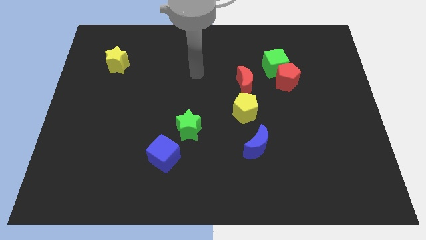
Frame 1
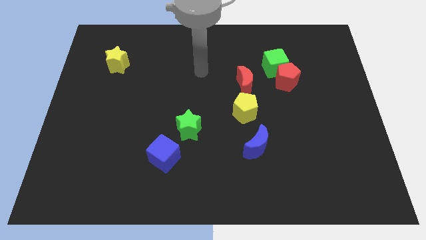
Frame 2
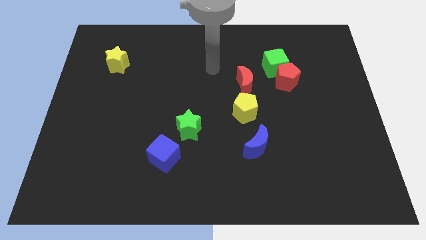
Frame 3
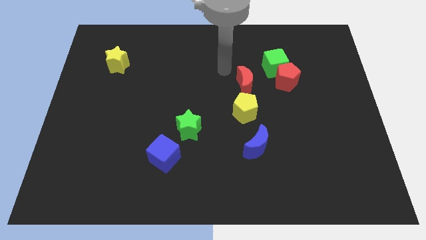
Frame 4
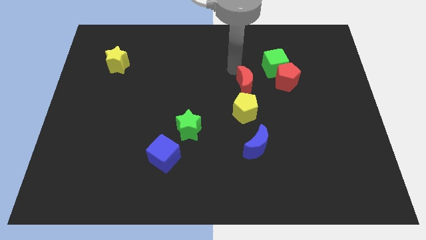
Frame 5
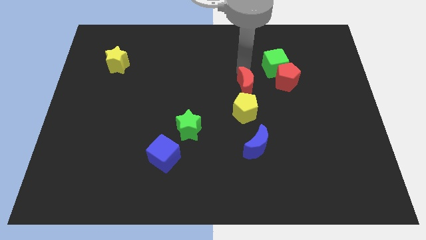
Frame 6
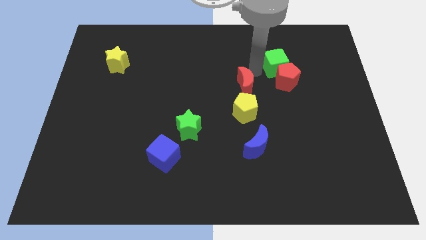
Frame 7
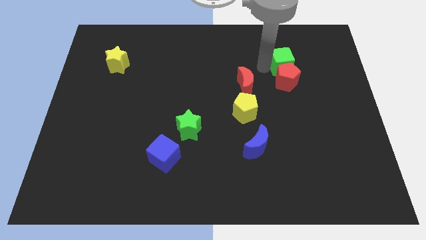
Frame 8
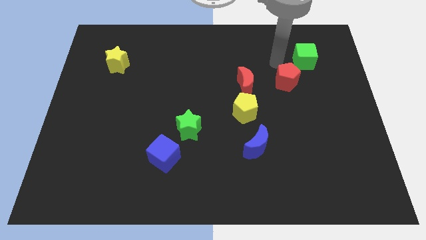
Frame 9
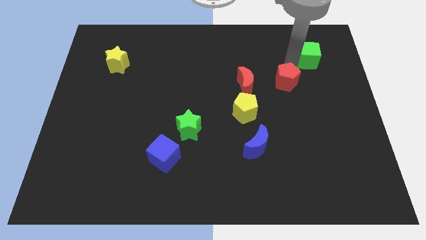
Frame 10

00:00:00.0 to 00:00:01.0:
pull the red pentagon apart from the green cube

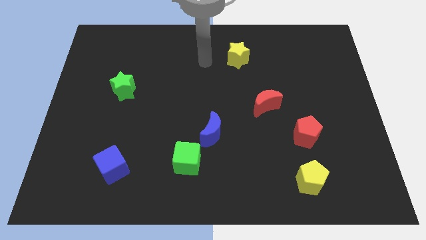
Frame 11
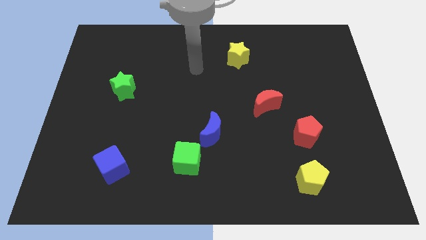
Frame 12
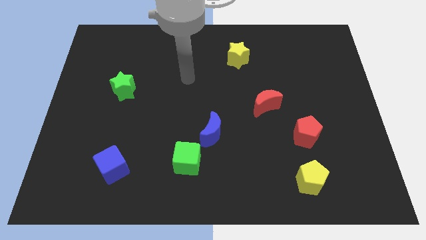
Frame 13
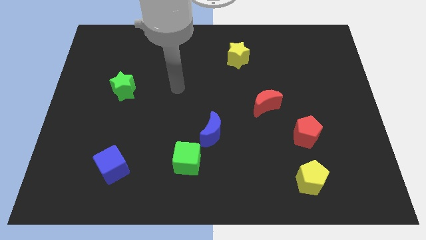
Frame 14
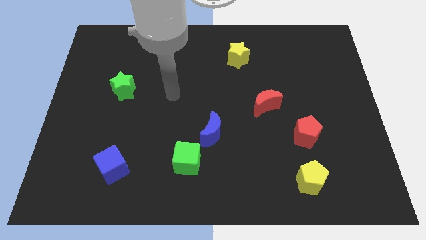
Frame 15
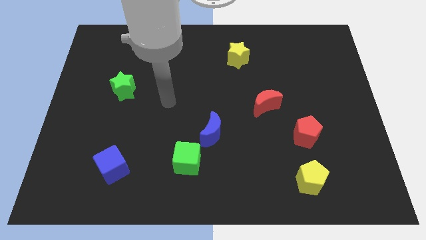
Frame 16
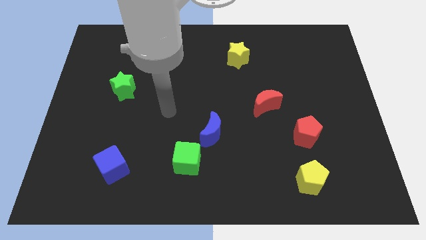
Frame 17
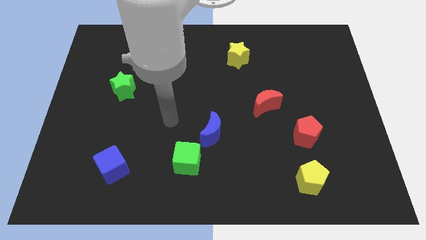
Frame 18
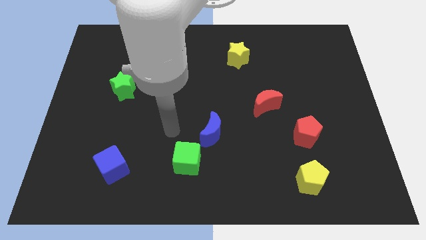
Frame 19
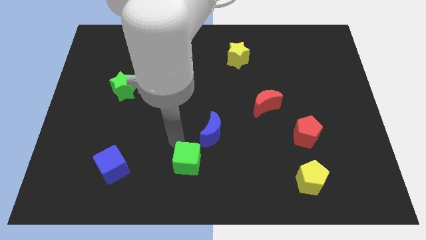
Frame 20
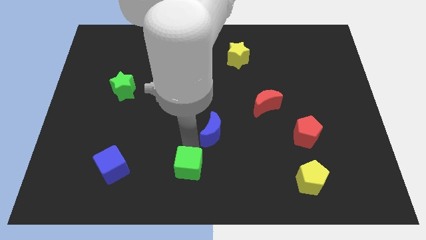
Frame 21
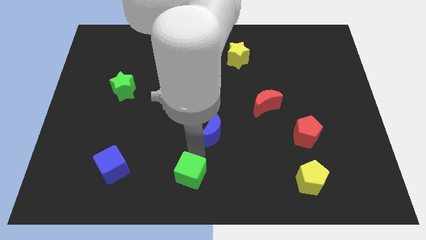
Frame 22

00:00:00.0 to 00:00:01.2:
pull the blue moon apart from the green cube

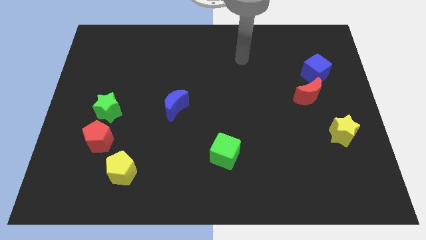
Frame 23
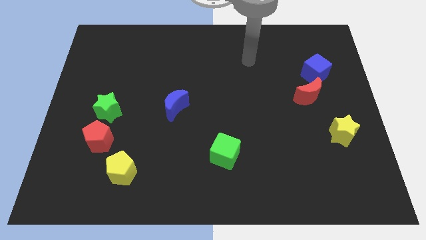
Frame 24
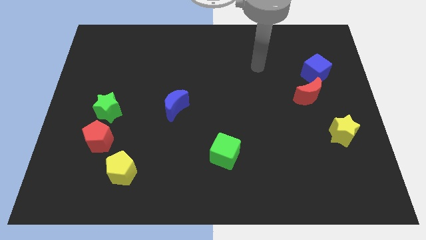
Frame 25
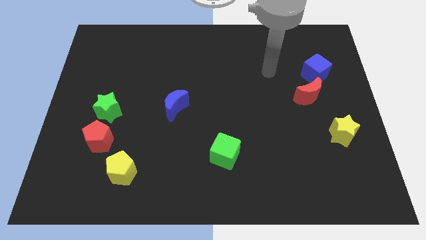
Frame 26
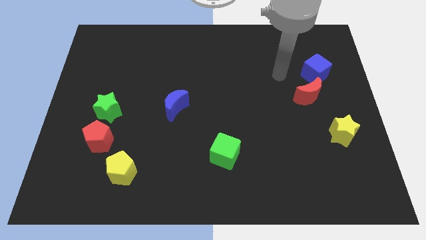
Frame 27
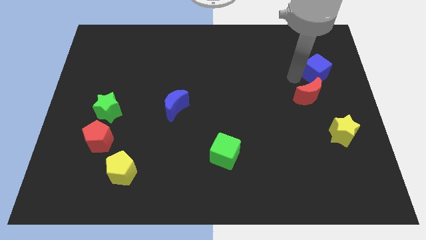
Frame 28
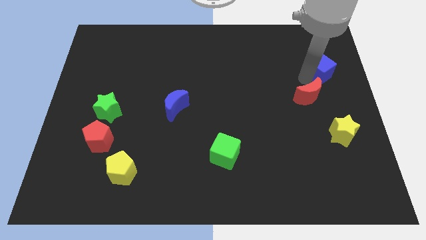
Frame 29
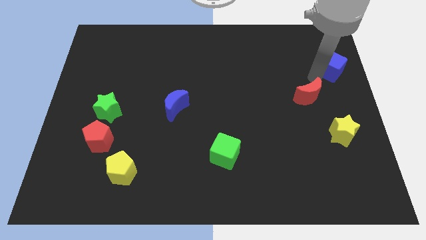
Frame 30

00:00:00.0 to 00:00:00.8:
move the red moon away from the blue cube

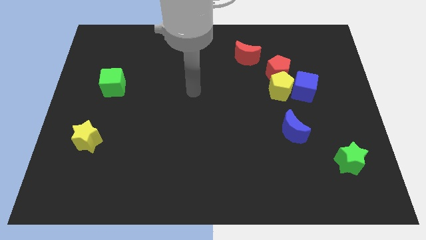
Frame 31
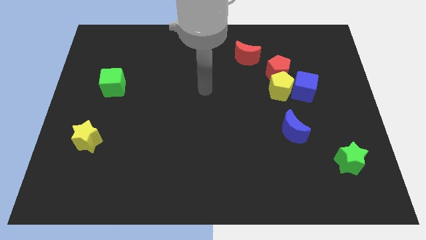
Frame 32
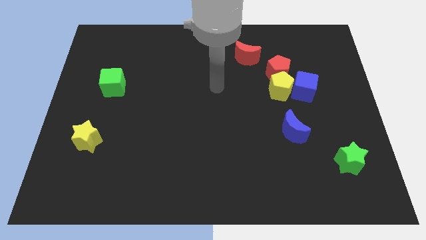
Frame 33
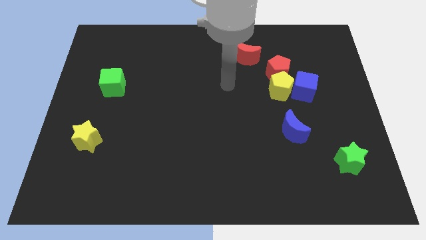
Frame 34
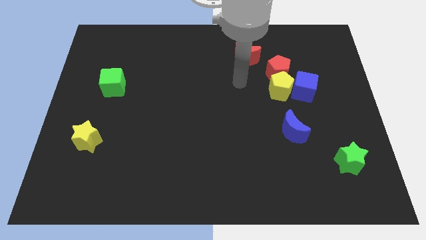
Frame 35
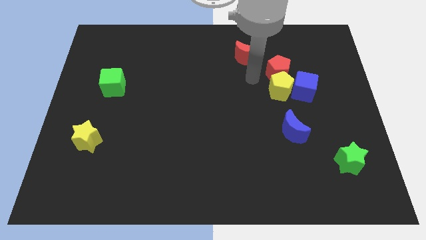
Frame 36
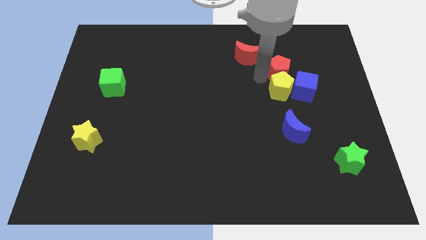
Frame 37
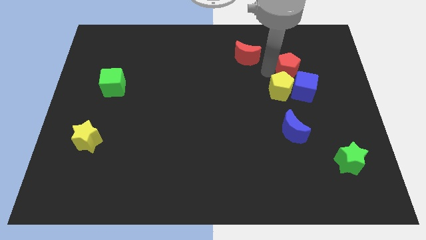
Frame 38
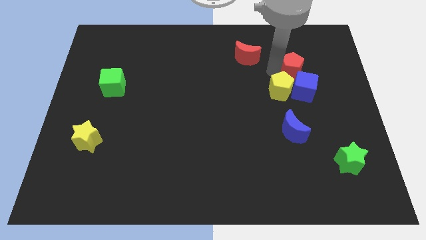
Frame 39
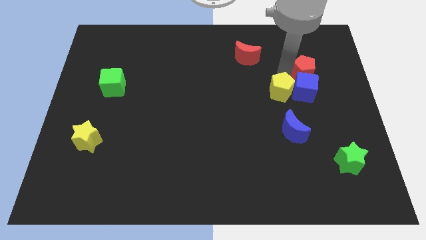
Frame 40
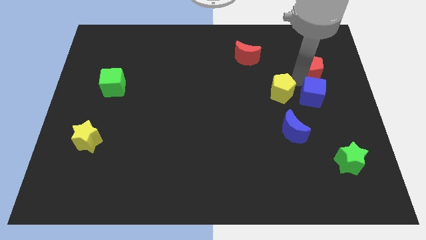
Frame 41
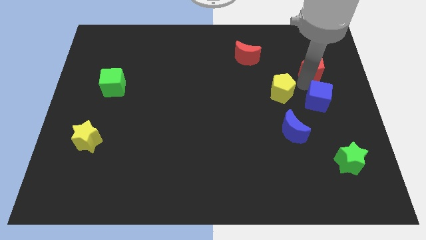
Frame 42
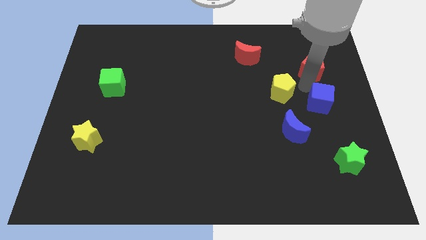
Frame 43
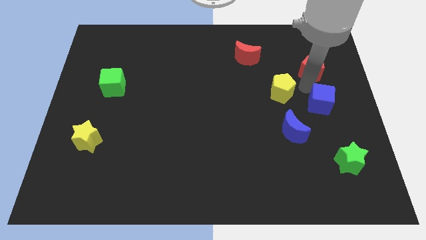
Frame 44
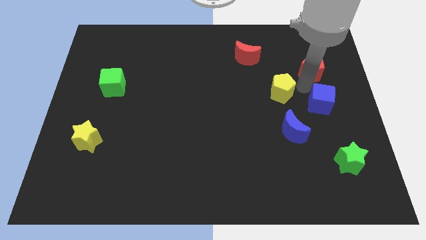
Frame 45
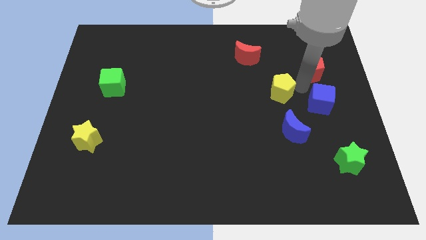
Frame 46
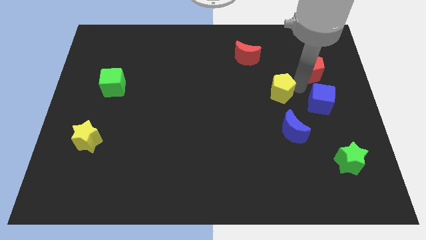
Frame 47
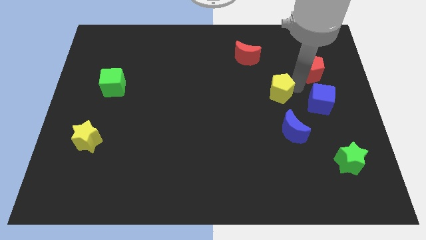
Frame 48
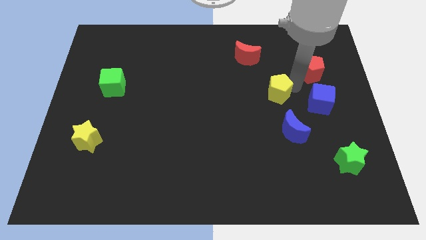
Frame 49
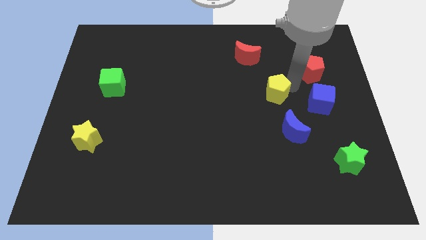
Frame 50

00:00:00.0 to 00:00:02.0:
pull the yellow pentagon apart from the red pentagon and blue cube

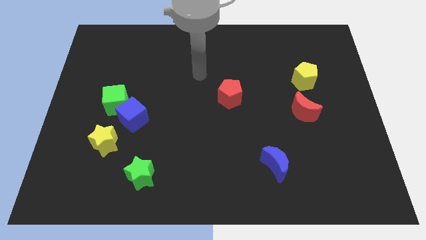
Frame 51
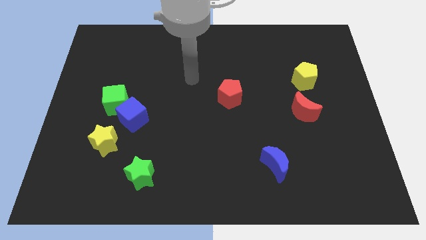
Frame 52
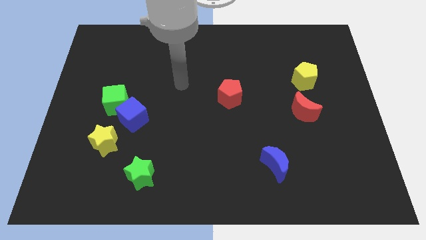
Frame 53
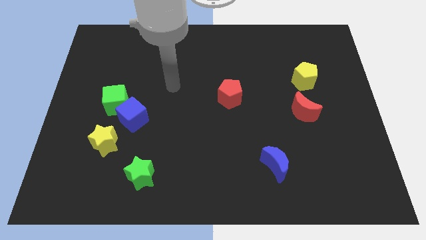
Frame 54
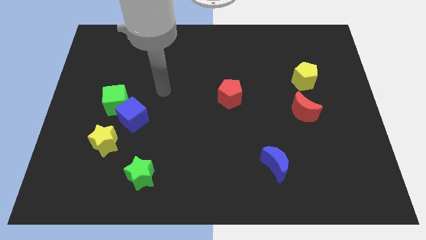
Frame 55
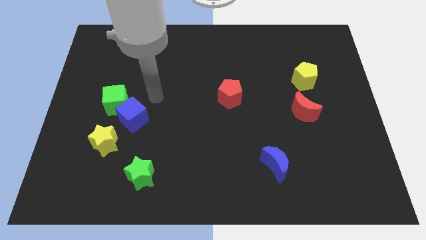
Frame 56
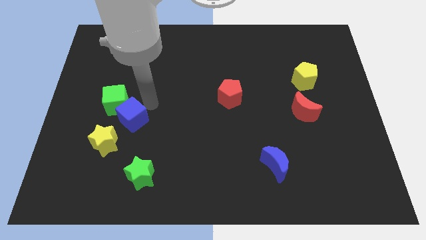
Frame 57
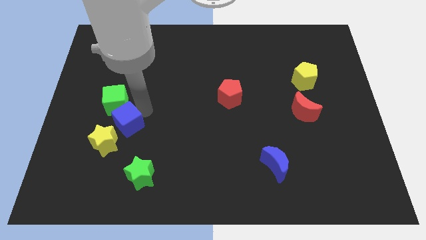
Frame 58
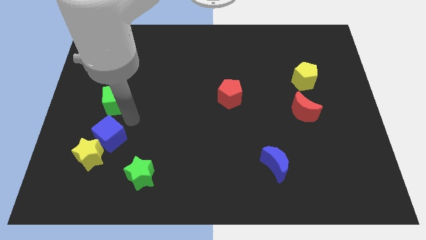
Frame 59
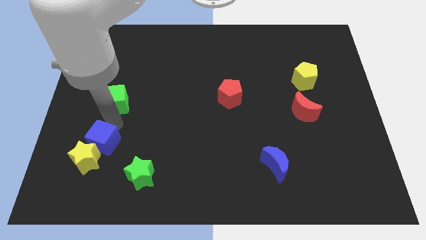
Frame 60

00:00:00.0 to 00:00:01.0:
separate the green cube from the blue cube

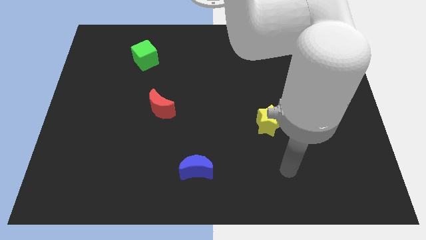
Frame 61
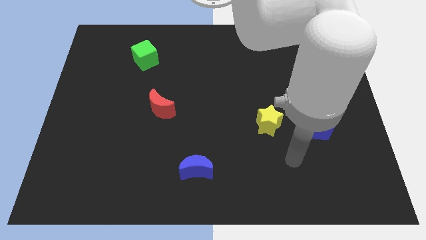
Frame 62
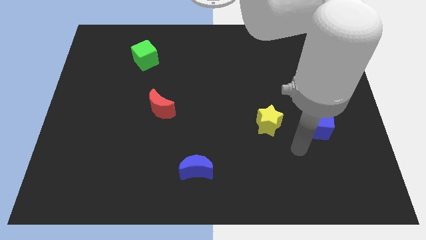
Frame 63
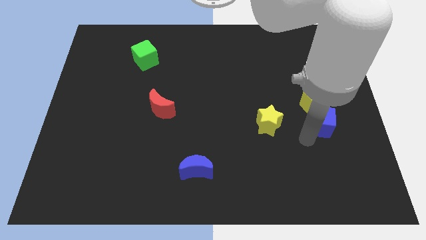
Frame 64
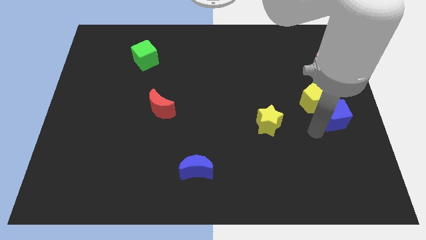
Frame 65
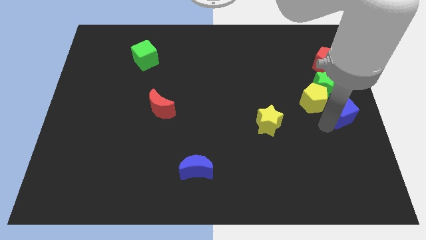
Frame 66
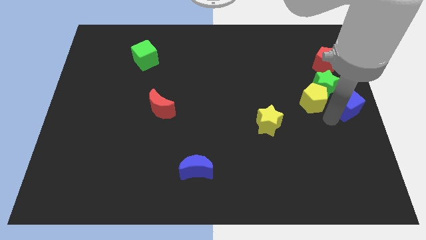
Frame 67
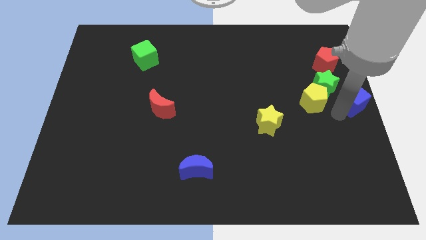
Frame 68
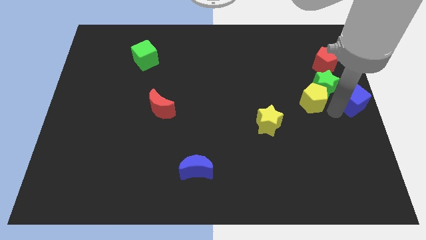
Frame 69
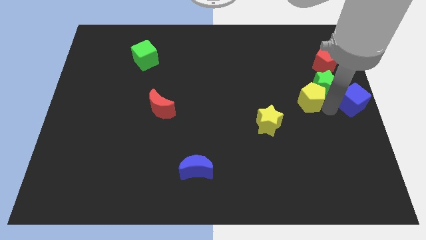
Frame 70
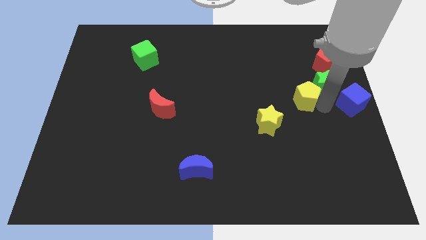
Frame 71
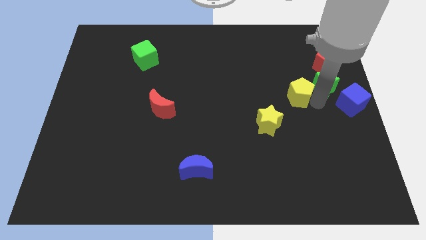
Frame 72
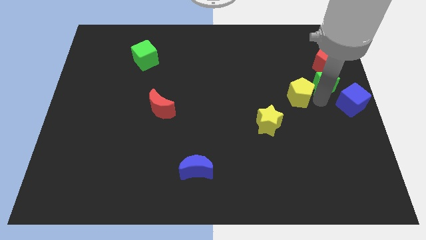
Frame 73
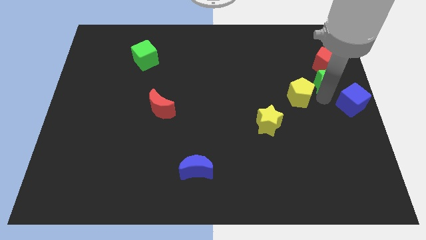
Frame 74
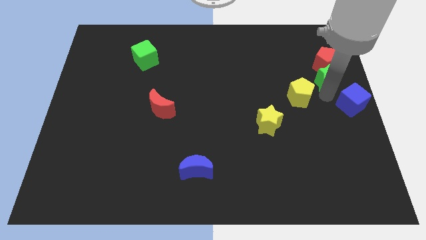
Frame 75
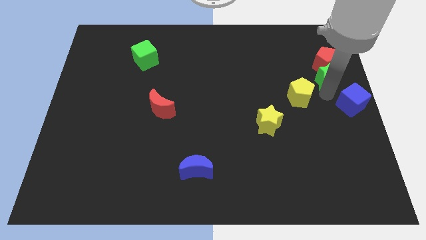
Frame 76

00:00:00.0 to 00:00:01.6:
separate the yellow pentagon from the green star and blue cube

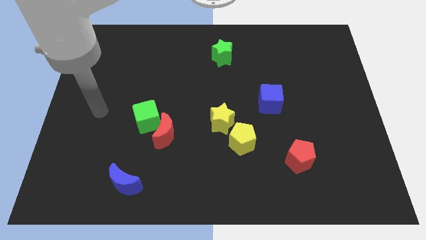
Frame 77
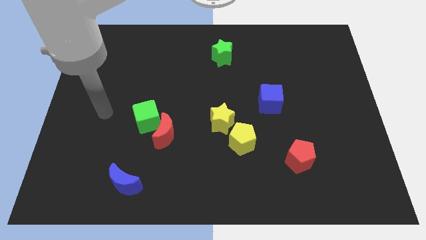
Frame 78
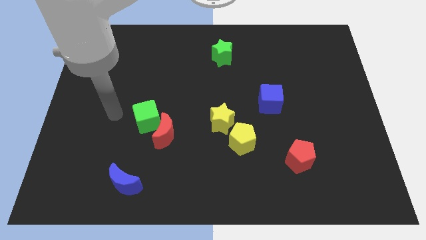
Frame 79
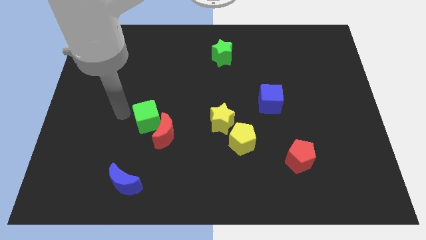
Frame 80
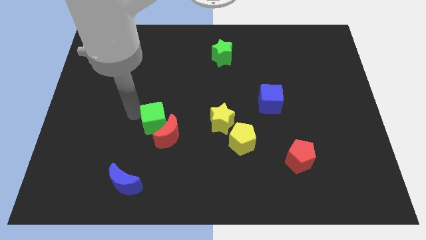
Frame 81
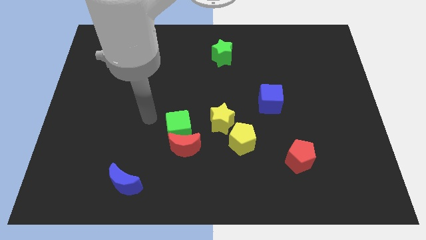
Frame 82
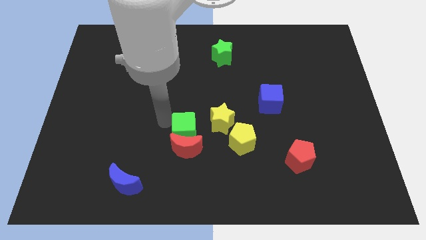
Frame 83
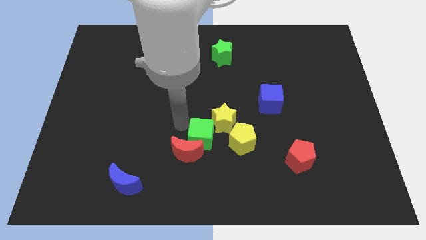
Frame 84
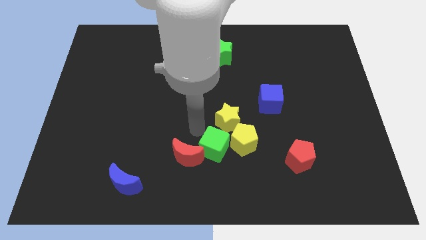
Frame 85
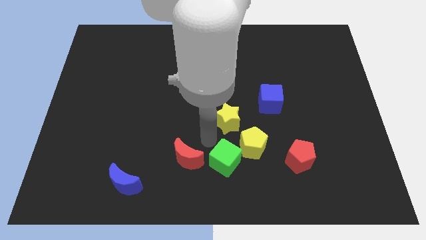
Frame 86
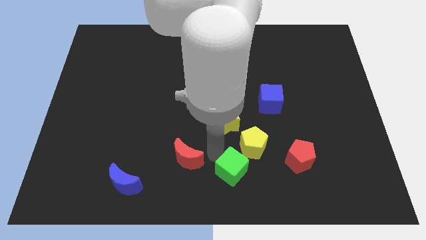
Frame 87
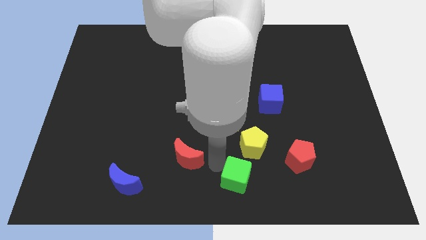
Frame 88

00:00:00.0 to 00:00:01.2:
separate the red moon from the green cube

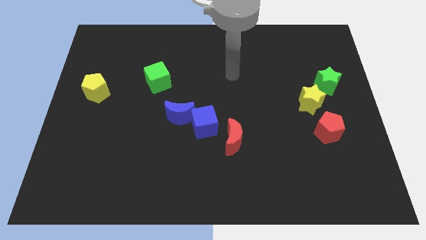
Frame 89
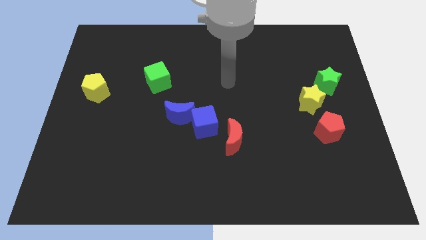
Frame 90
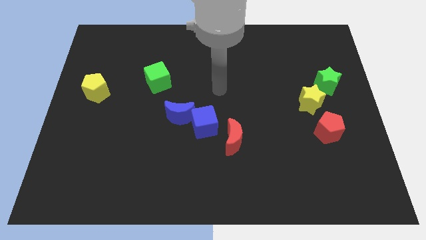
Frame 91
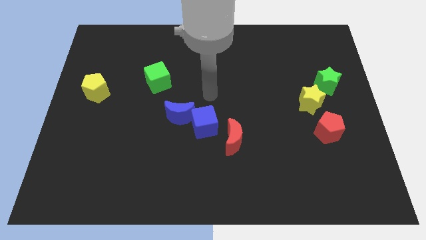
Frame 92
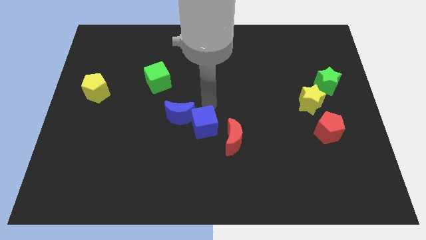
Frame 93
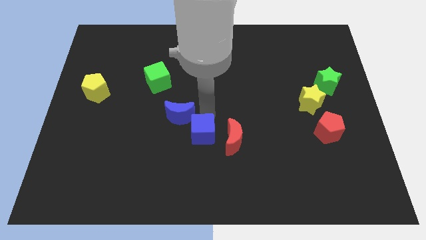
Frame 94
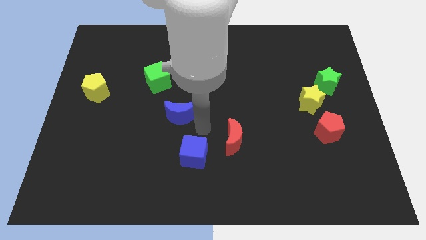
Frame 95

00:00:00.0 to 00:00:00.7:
pull the blue moon apart from the blue cube
